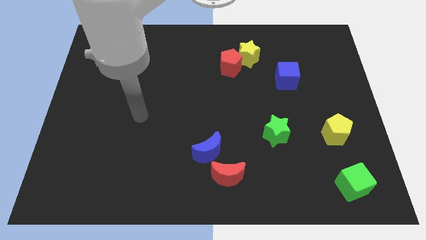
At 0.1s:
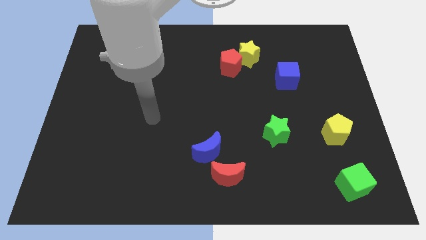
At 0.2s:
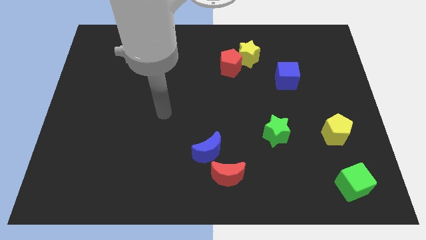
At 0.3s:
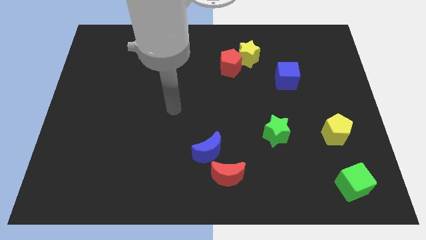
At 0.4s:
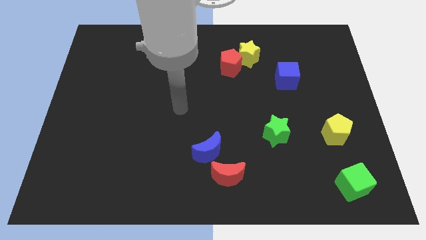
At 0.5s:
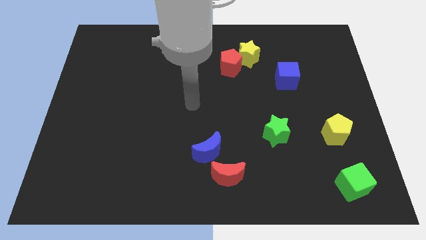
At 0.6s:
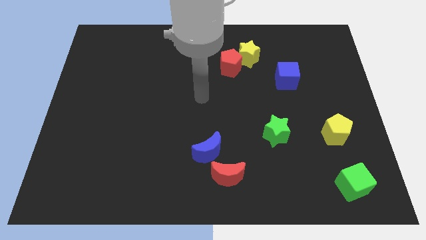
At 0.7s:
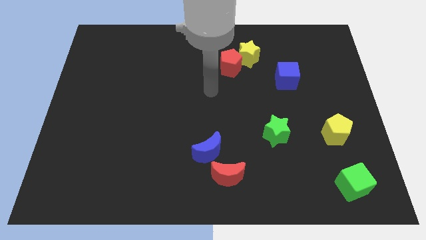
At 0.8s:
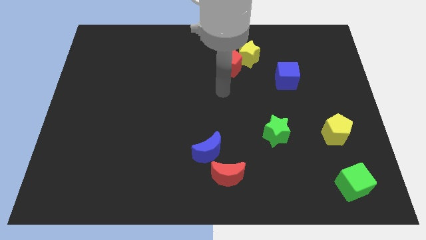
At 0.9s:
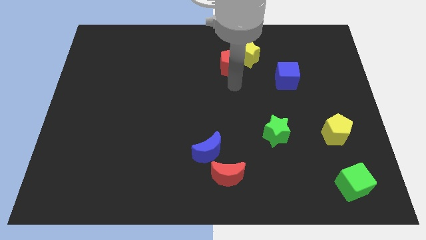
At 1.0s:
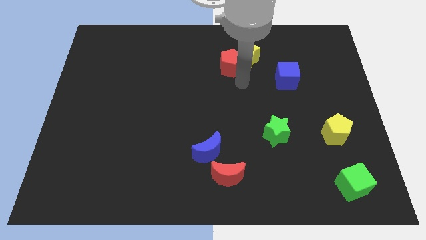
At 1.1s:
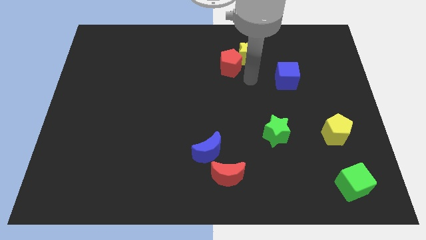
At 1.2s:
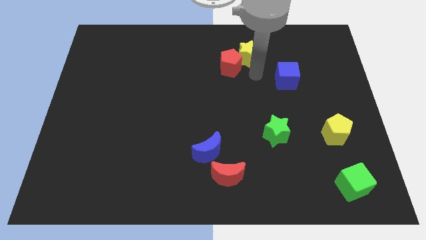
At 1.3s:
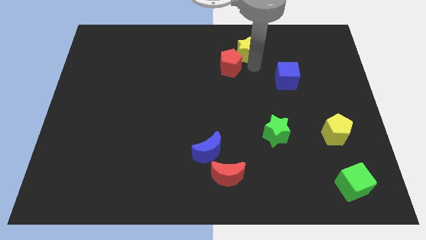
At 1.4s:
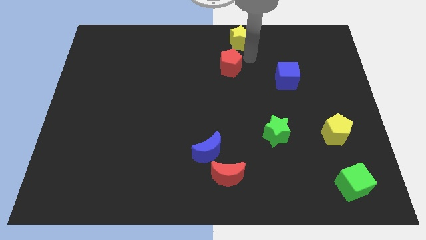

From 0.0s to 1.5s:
move the red pentagon away from the yellow star

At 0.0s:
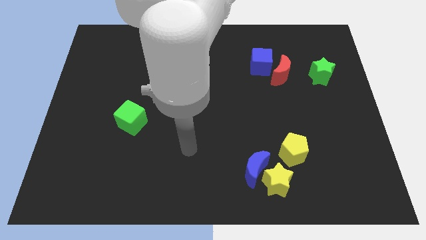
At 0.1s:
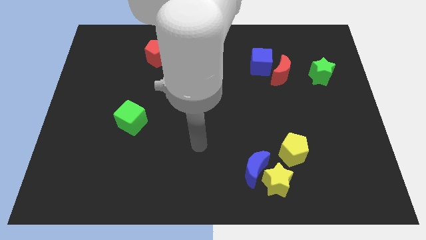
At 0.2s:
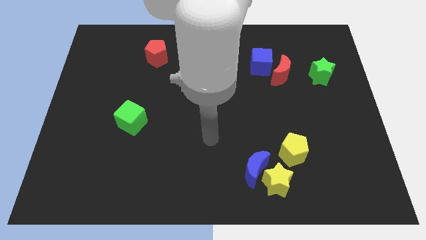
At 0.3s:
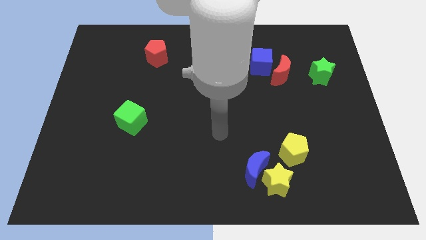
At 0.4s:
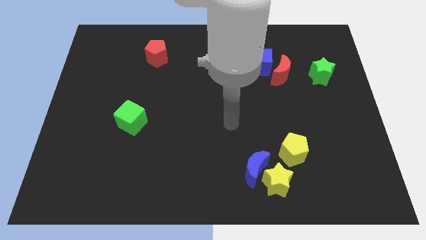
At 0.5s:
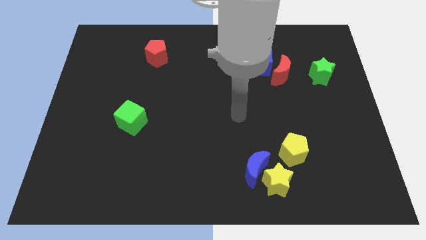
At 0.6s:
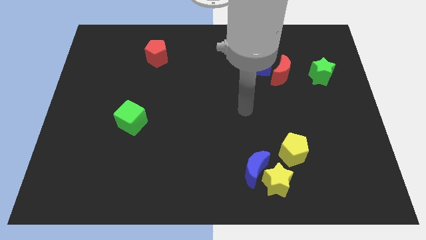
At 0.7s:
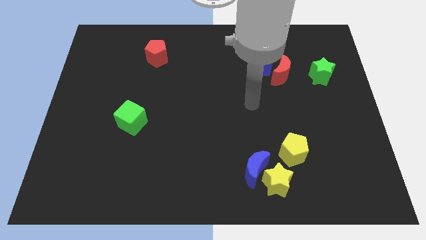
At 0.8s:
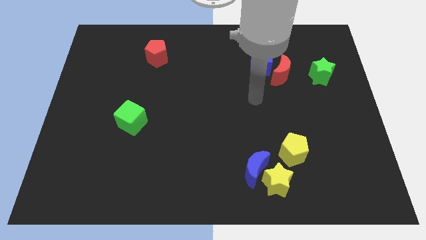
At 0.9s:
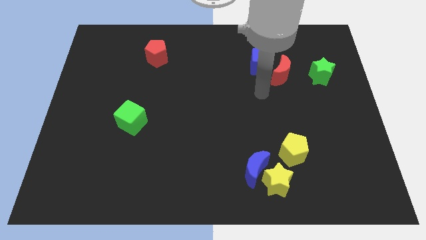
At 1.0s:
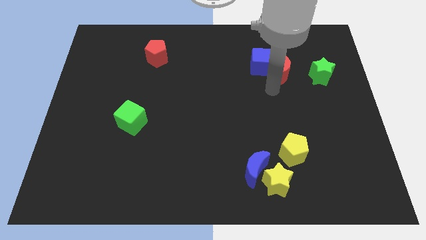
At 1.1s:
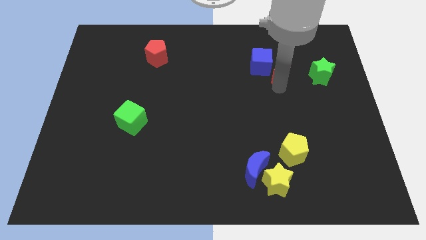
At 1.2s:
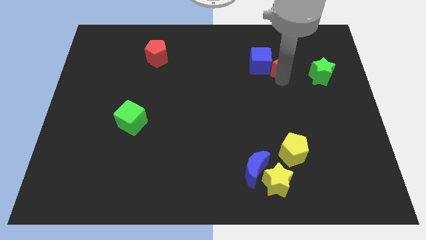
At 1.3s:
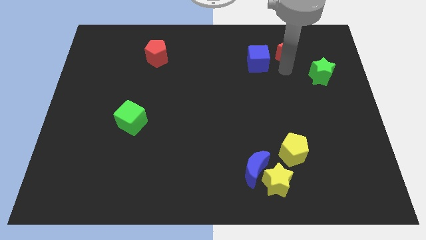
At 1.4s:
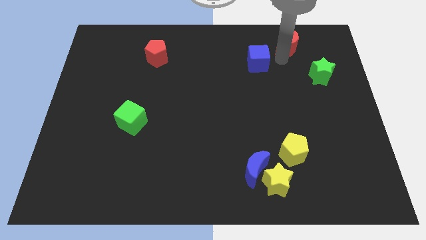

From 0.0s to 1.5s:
separate the blue cube from the red moon

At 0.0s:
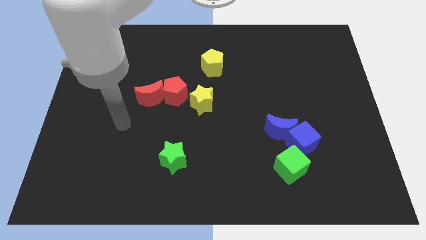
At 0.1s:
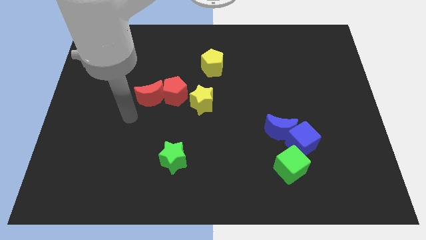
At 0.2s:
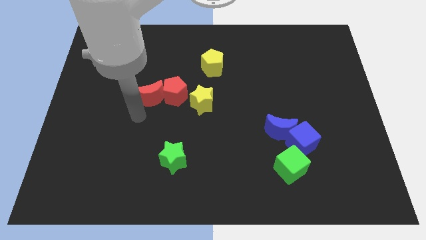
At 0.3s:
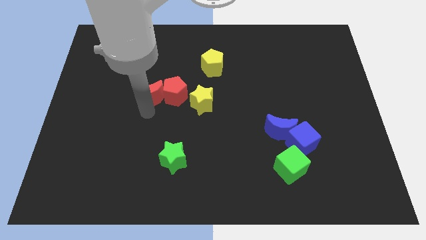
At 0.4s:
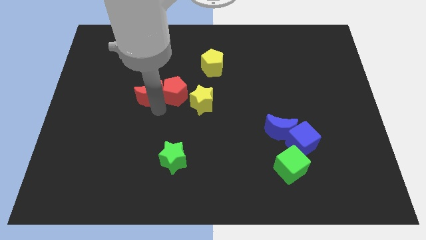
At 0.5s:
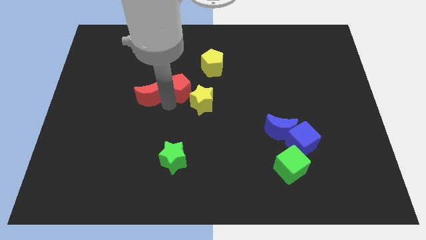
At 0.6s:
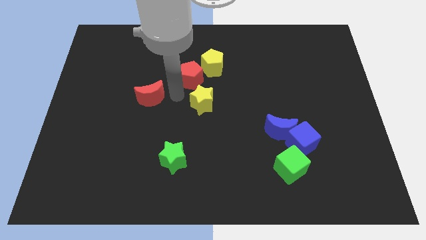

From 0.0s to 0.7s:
pull the red moon apart from the red pentagon

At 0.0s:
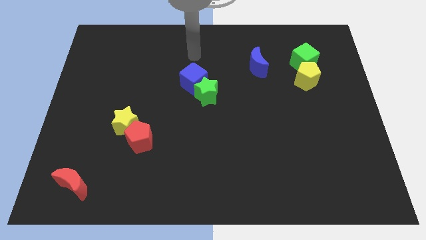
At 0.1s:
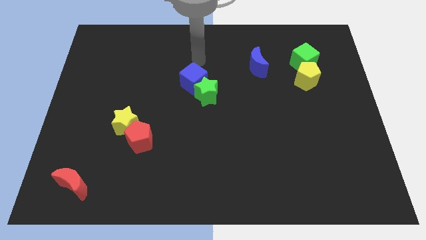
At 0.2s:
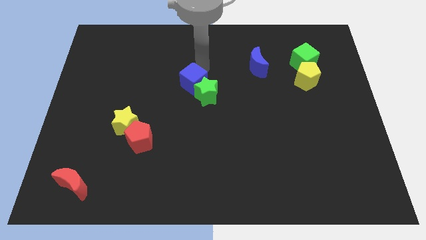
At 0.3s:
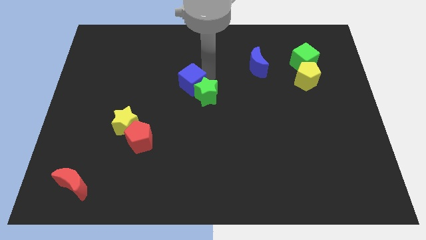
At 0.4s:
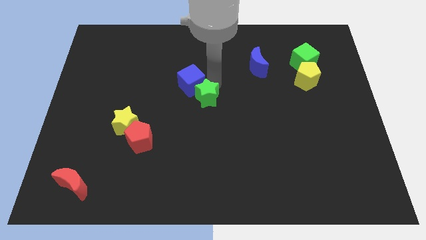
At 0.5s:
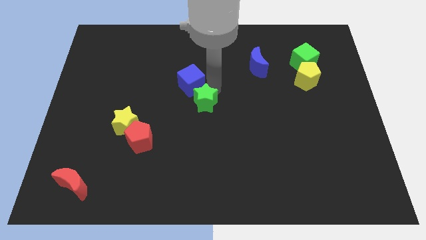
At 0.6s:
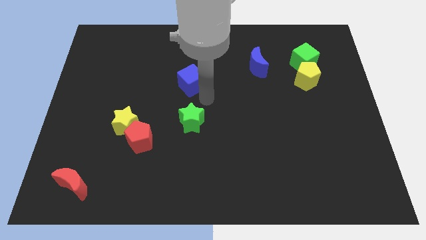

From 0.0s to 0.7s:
move the blue cube away from the green star

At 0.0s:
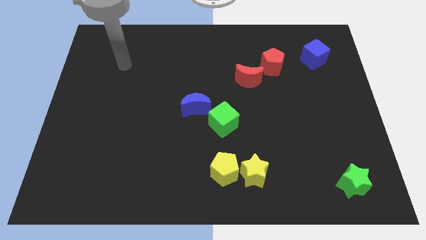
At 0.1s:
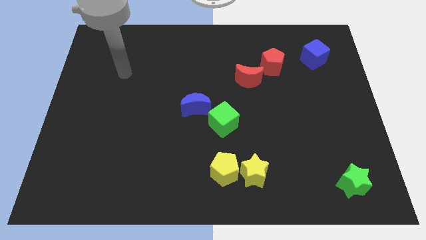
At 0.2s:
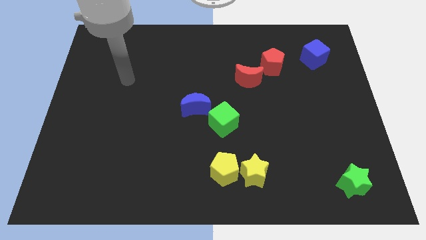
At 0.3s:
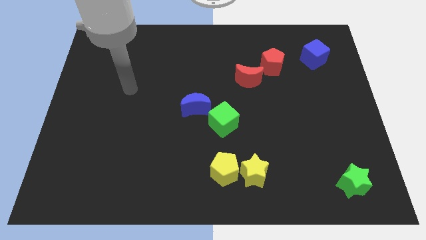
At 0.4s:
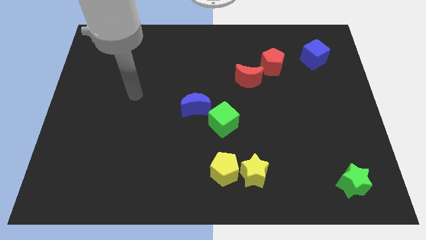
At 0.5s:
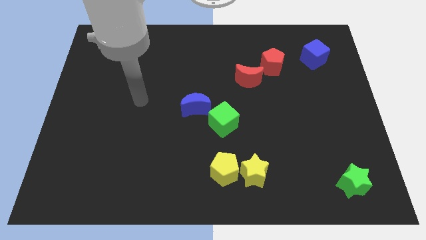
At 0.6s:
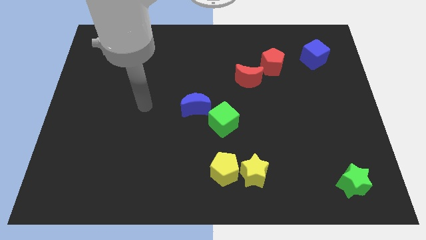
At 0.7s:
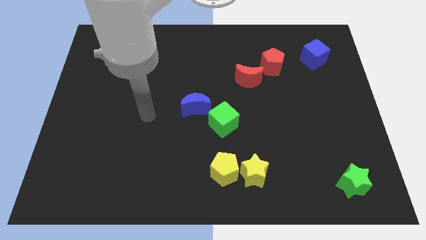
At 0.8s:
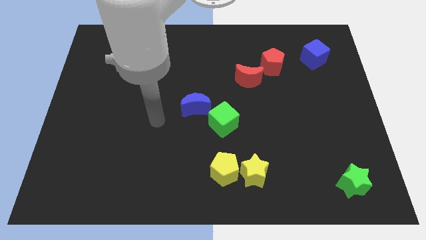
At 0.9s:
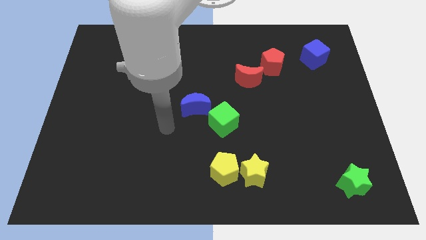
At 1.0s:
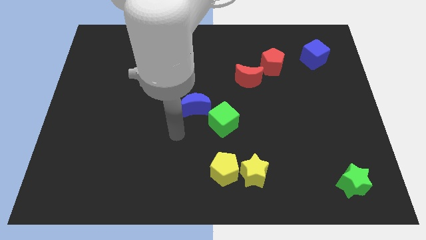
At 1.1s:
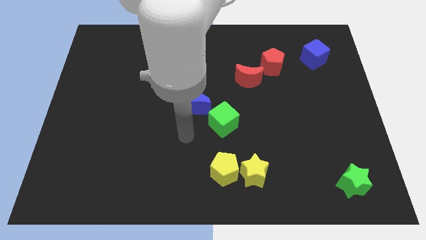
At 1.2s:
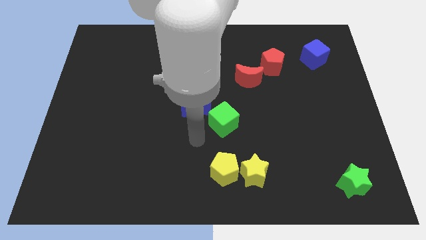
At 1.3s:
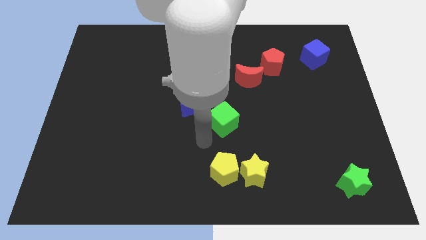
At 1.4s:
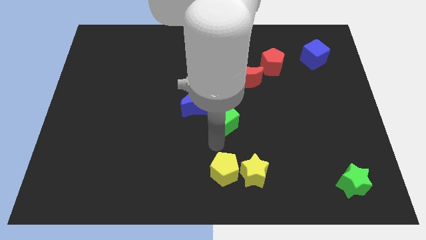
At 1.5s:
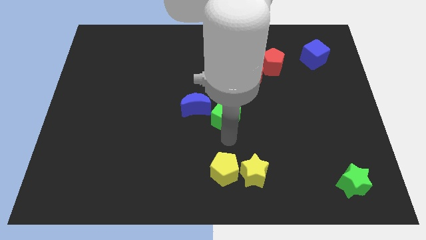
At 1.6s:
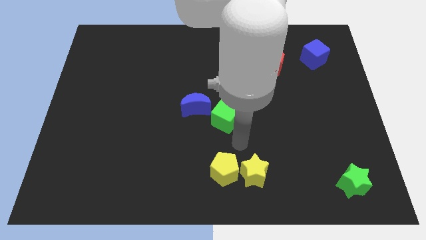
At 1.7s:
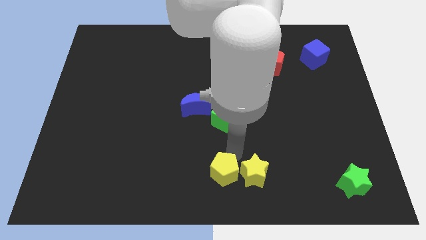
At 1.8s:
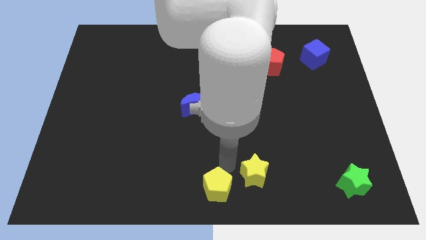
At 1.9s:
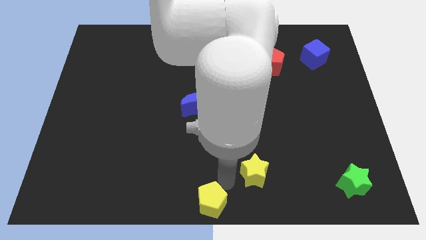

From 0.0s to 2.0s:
pull the yellow star apart from the yellow pentagon

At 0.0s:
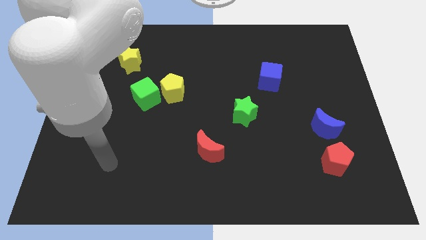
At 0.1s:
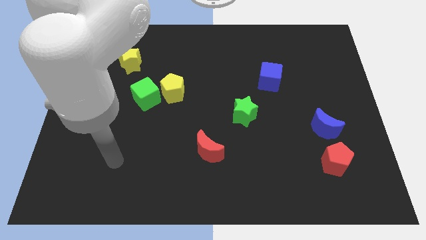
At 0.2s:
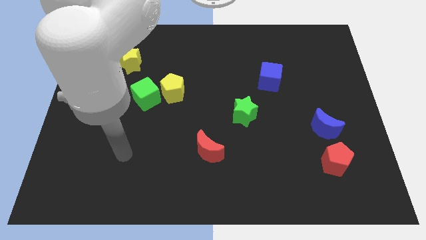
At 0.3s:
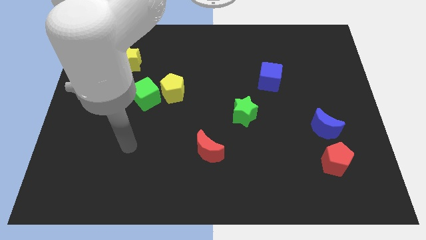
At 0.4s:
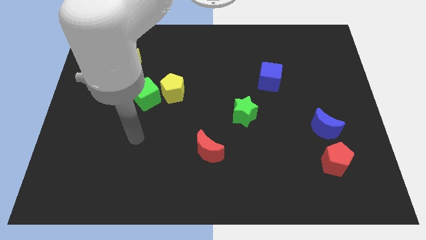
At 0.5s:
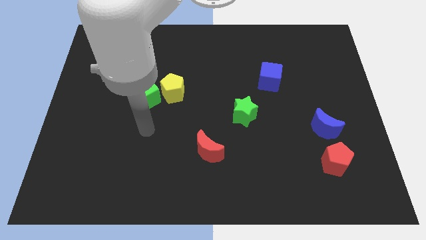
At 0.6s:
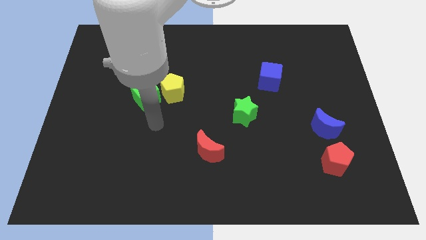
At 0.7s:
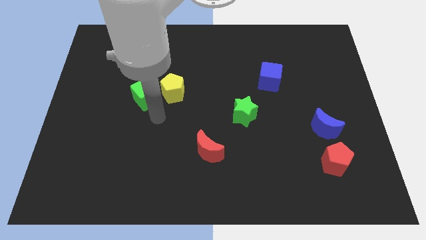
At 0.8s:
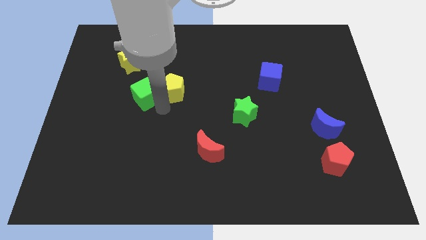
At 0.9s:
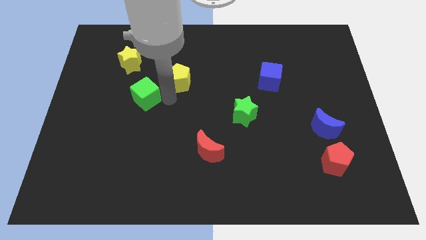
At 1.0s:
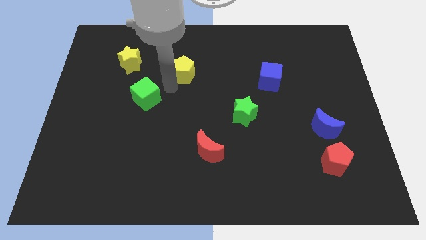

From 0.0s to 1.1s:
pull the green cube apart from the yellow pentagon

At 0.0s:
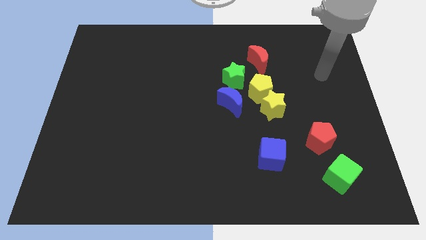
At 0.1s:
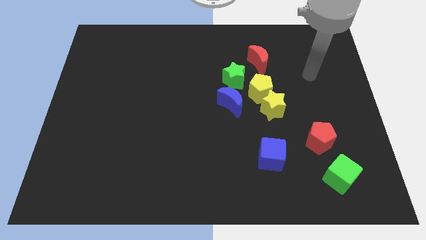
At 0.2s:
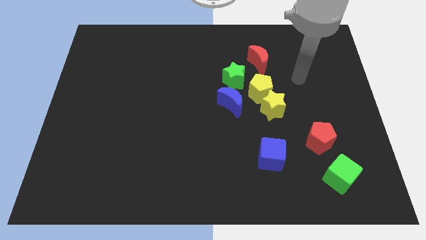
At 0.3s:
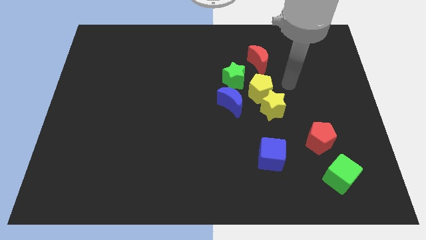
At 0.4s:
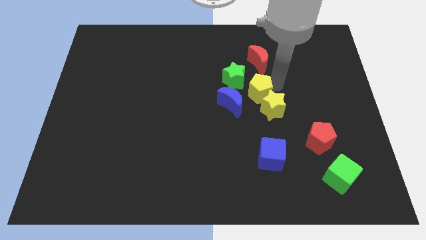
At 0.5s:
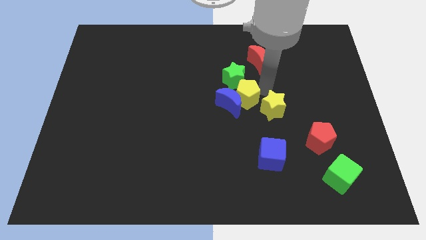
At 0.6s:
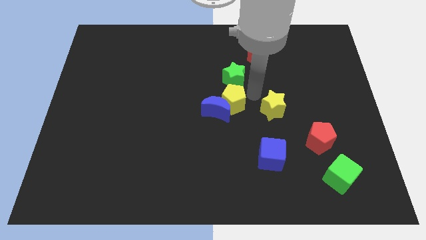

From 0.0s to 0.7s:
separate the yellow star from the yellow pentagon and blue moon

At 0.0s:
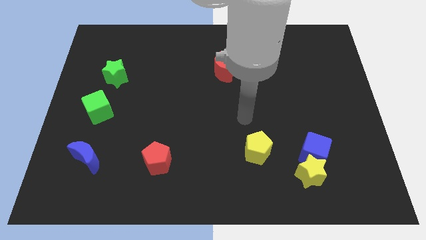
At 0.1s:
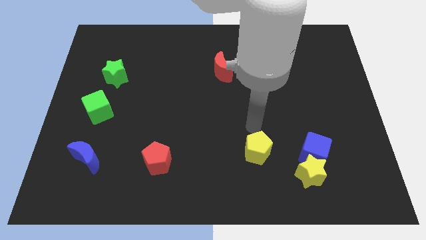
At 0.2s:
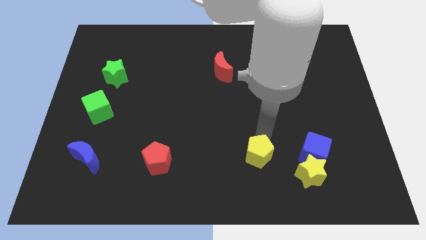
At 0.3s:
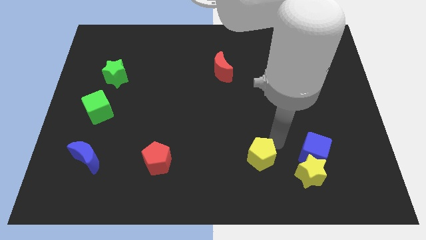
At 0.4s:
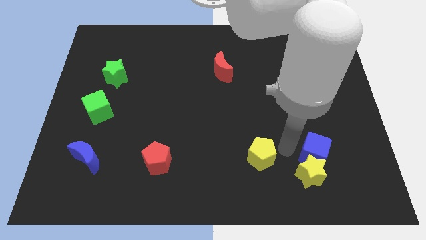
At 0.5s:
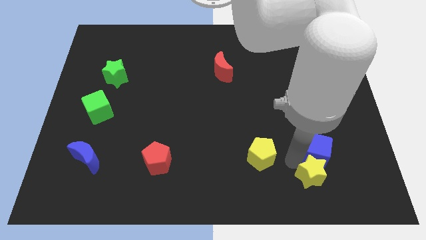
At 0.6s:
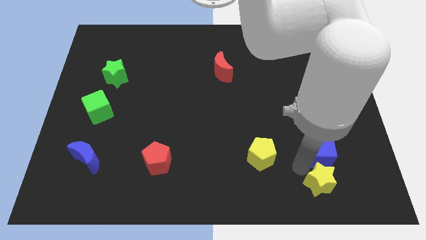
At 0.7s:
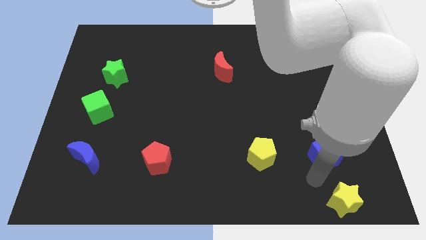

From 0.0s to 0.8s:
move the blue cube away from the yellow star

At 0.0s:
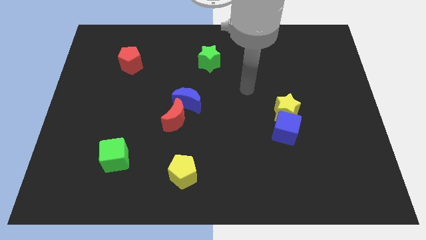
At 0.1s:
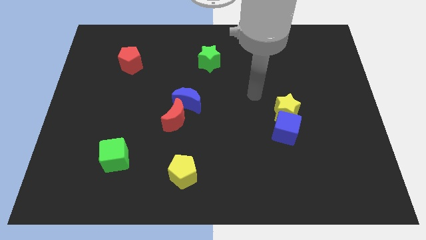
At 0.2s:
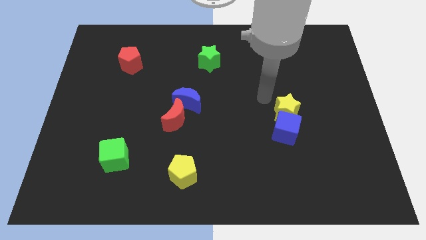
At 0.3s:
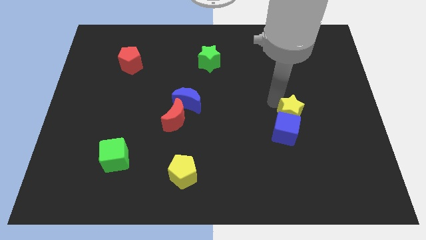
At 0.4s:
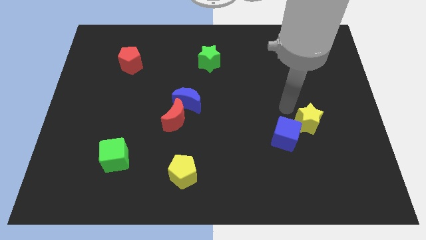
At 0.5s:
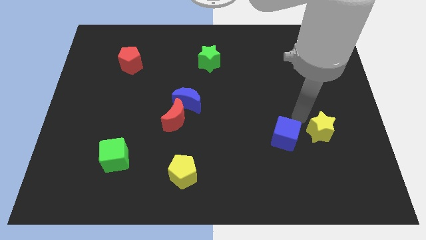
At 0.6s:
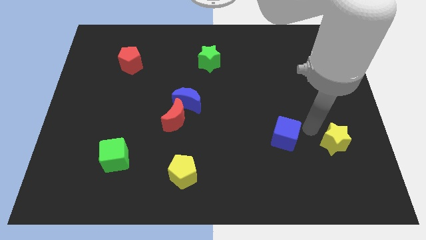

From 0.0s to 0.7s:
separate the blue cube from the yellow star
